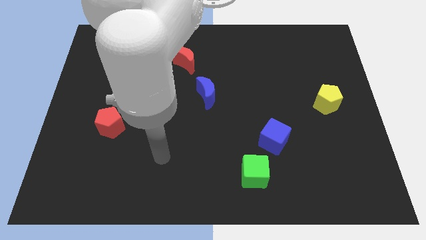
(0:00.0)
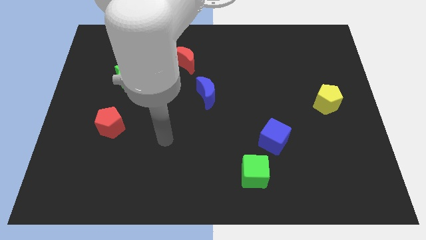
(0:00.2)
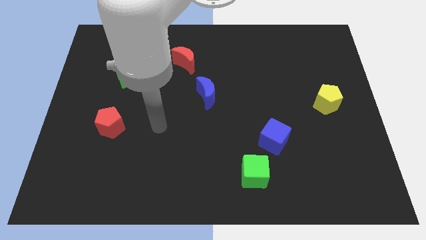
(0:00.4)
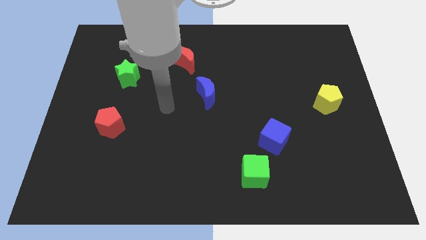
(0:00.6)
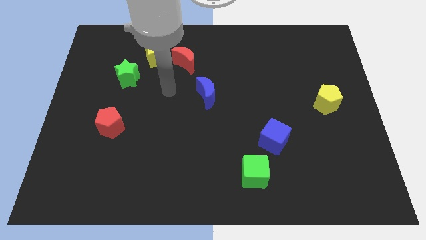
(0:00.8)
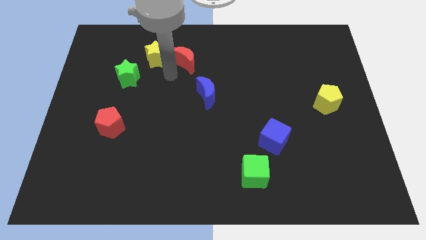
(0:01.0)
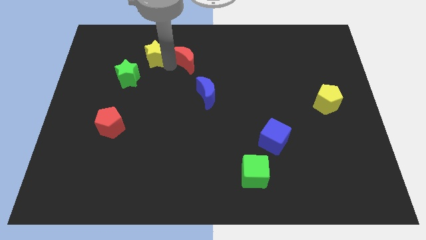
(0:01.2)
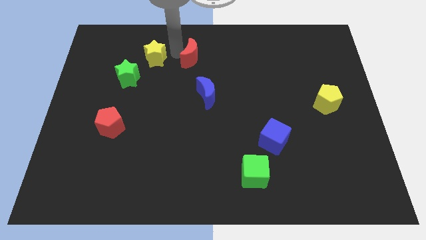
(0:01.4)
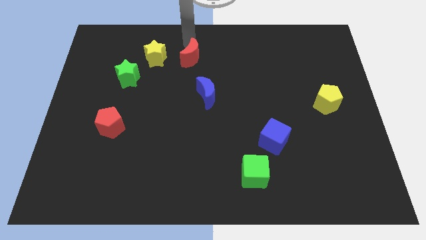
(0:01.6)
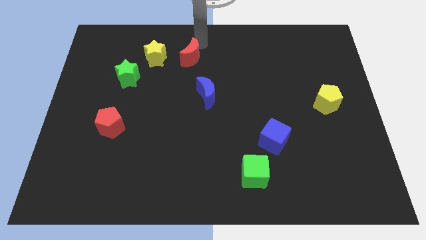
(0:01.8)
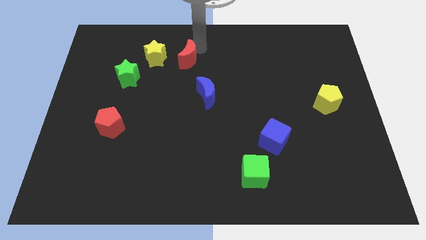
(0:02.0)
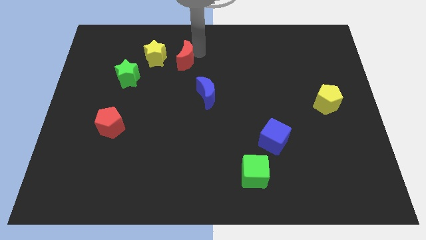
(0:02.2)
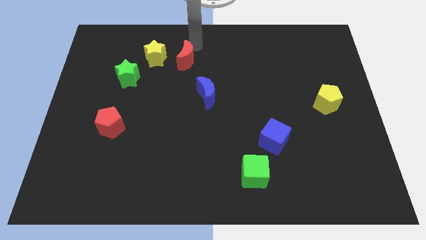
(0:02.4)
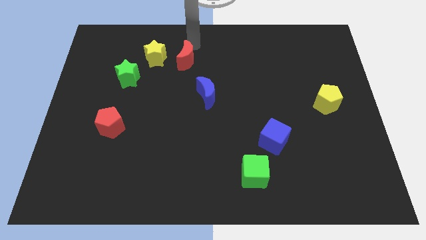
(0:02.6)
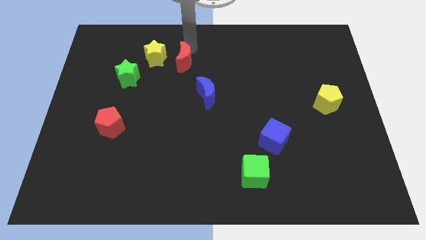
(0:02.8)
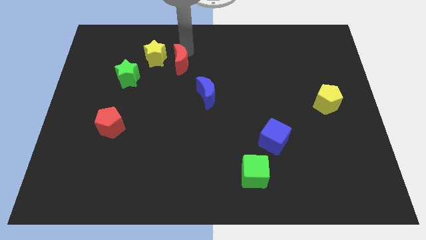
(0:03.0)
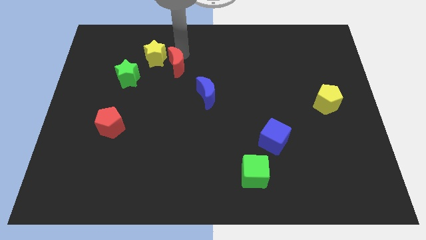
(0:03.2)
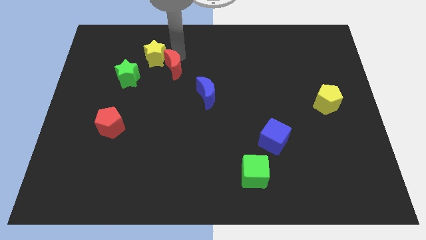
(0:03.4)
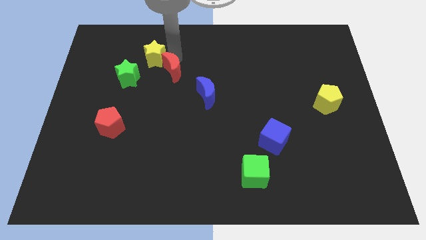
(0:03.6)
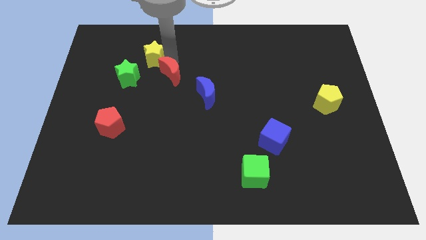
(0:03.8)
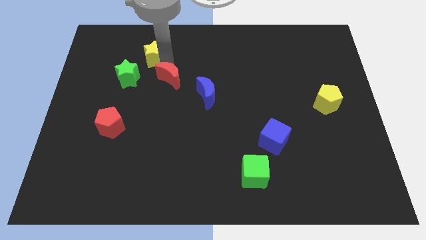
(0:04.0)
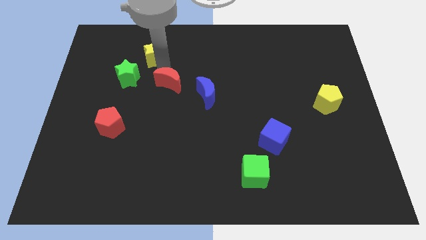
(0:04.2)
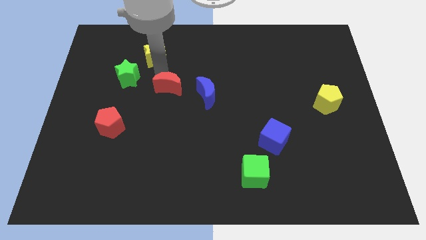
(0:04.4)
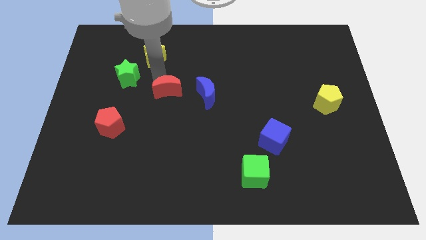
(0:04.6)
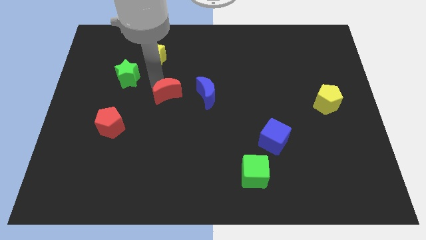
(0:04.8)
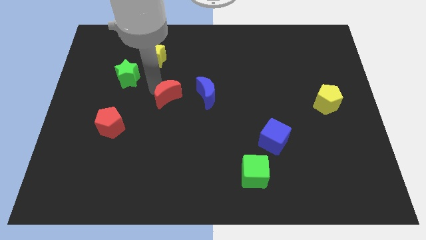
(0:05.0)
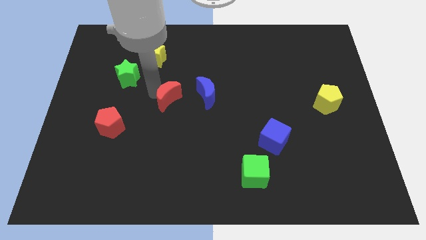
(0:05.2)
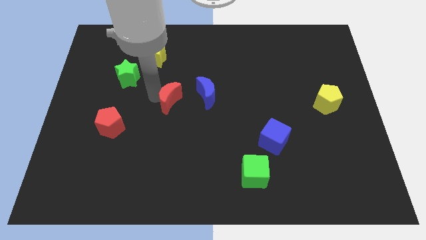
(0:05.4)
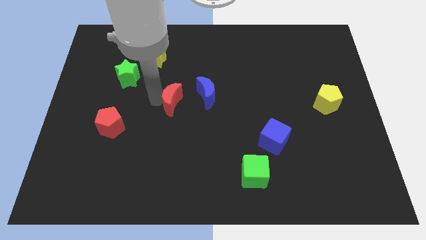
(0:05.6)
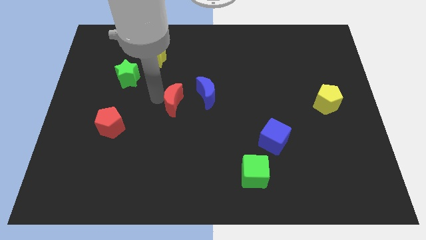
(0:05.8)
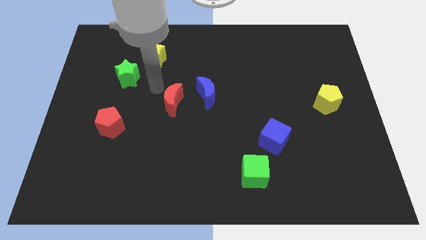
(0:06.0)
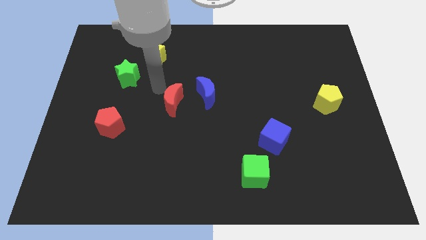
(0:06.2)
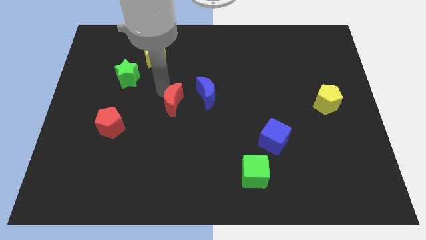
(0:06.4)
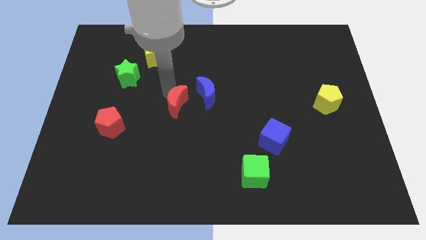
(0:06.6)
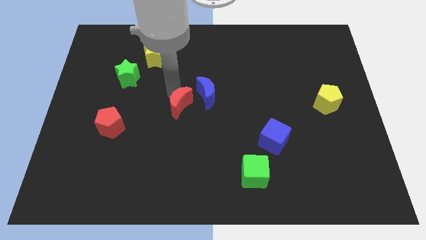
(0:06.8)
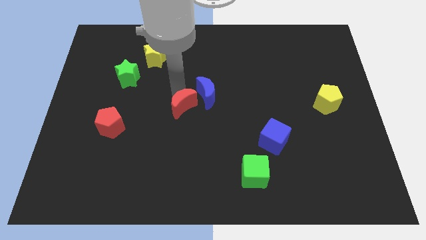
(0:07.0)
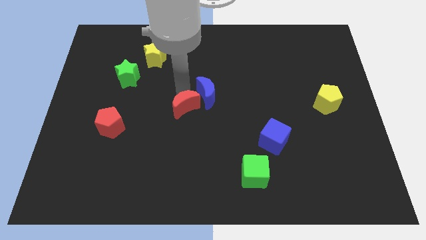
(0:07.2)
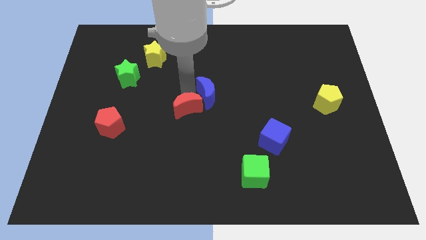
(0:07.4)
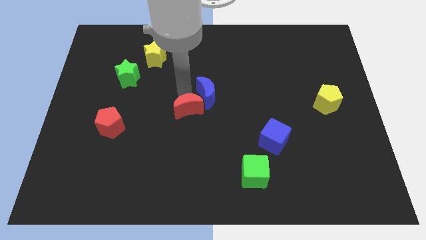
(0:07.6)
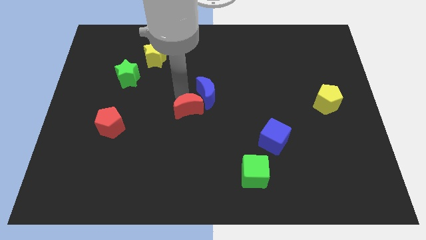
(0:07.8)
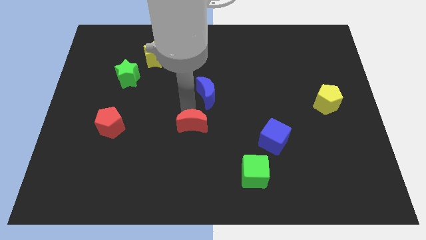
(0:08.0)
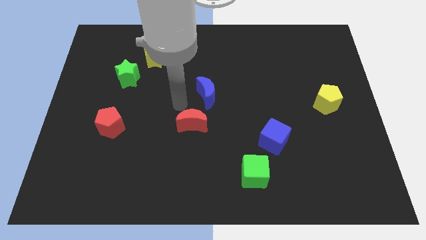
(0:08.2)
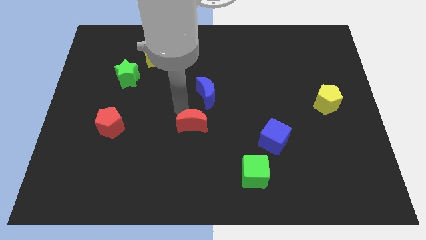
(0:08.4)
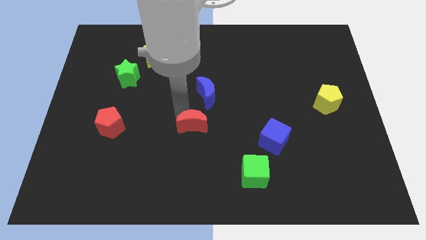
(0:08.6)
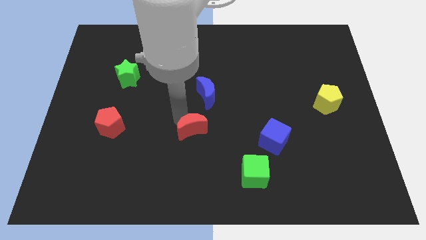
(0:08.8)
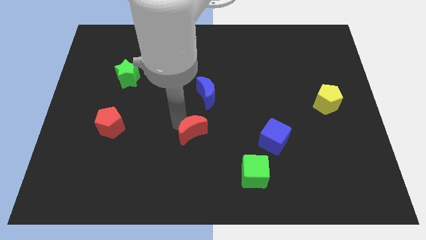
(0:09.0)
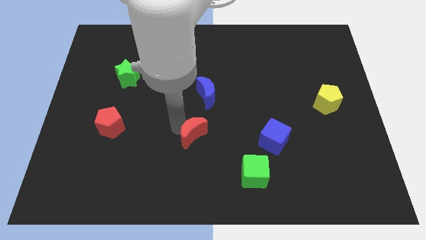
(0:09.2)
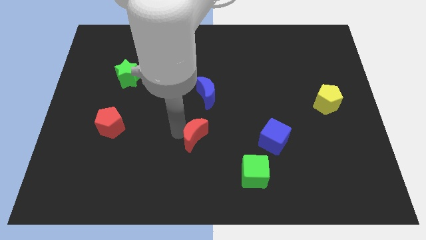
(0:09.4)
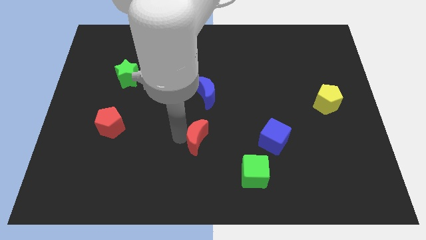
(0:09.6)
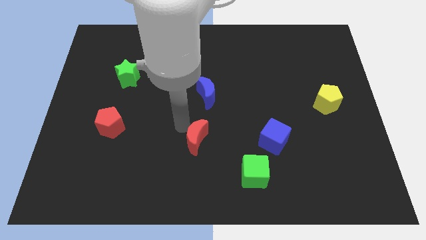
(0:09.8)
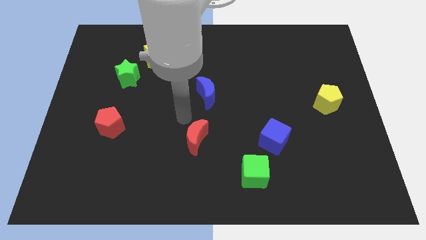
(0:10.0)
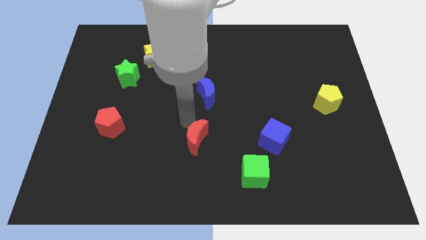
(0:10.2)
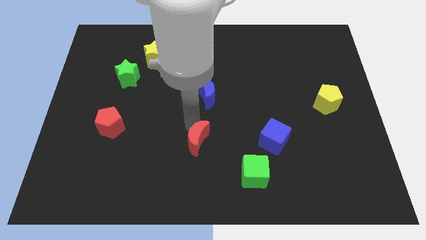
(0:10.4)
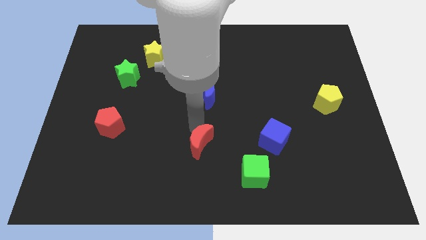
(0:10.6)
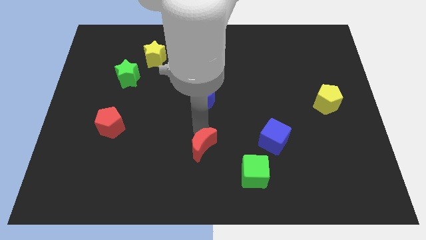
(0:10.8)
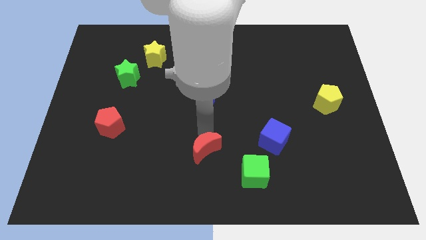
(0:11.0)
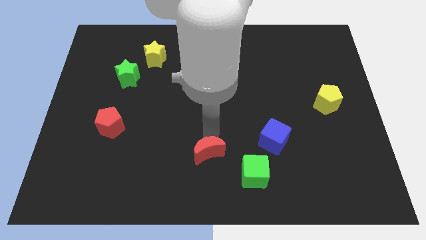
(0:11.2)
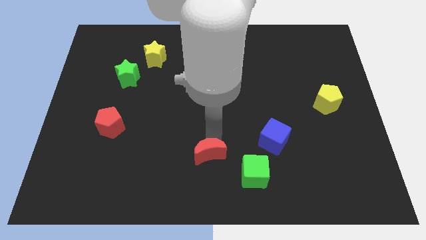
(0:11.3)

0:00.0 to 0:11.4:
push the red moon to the bottom
